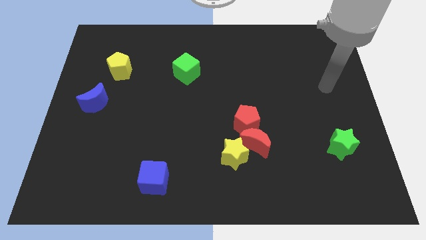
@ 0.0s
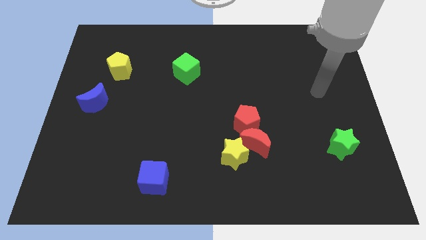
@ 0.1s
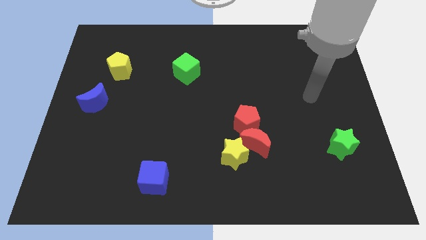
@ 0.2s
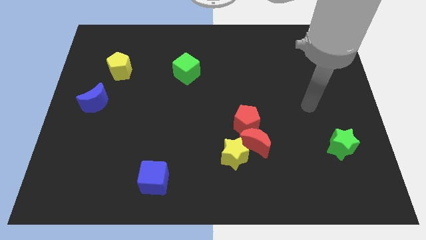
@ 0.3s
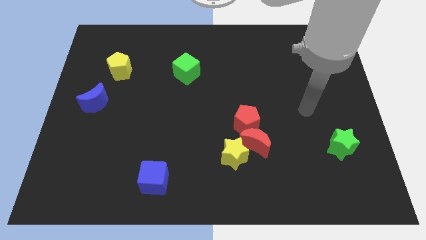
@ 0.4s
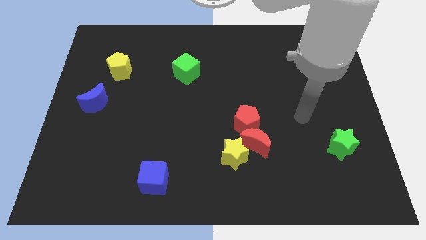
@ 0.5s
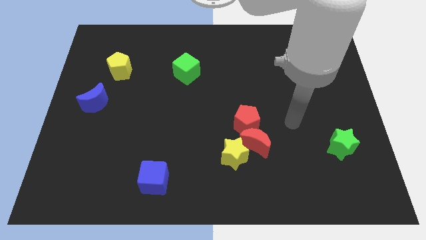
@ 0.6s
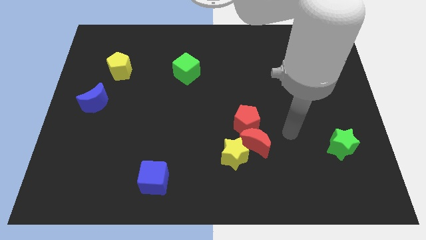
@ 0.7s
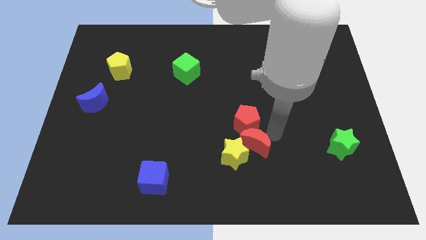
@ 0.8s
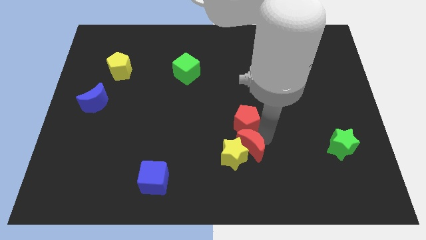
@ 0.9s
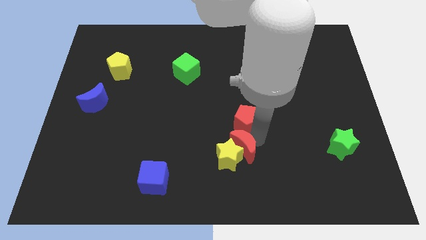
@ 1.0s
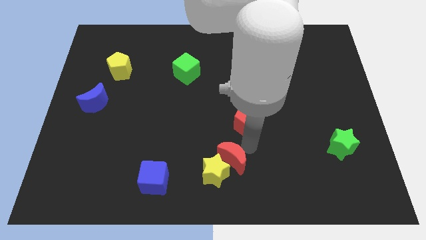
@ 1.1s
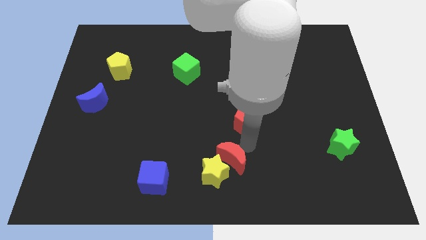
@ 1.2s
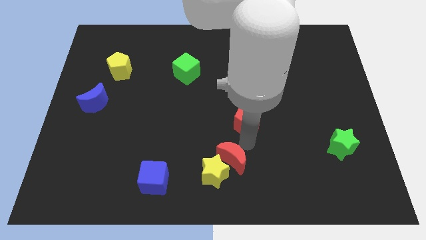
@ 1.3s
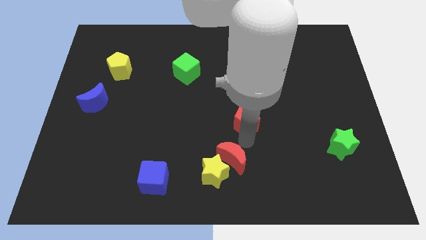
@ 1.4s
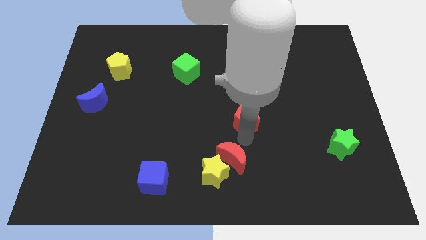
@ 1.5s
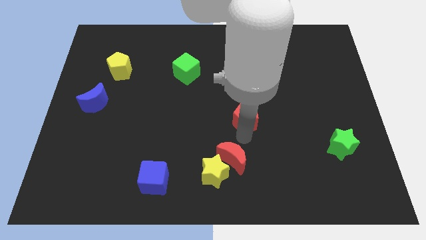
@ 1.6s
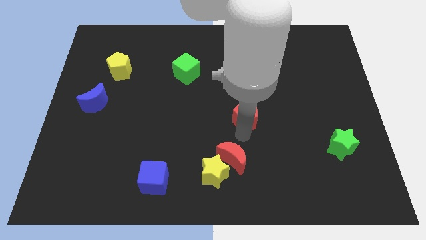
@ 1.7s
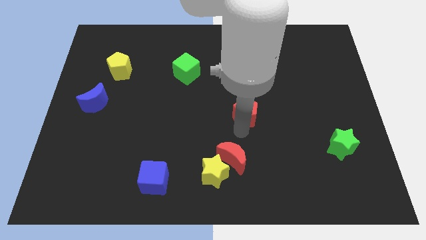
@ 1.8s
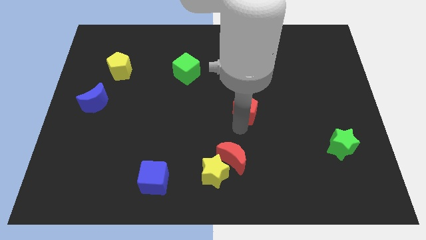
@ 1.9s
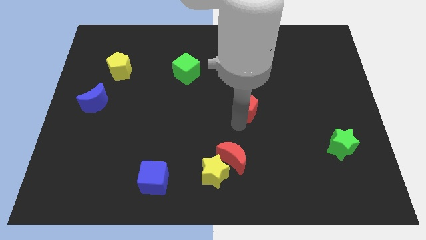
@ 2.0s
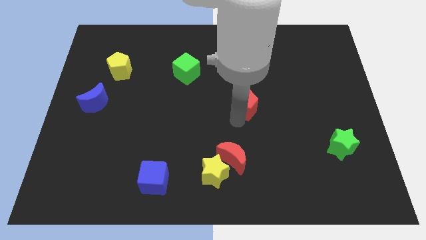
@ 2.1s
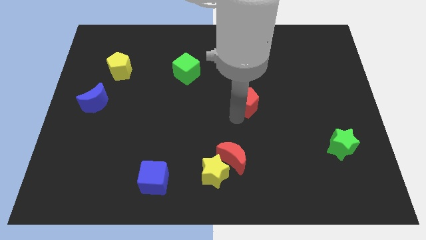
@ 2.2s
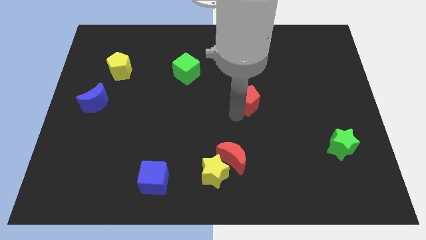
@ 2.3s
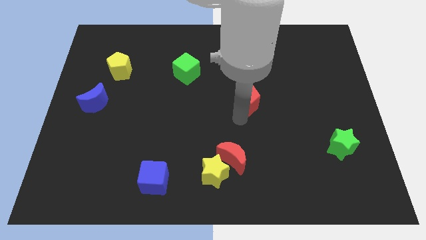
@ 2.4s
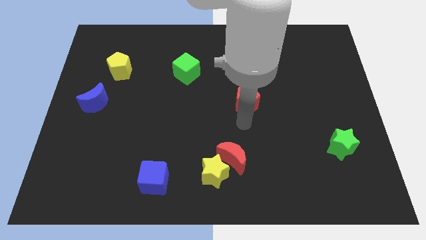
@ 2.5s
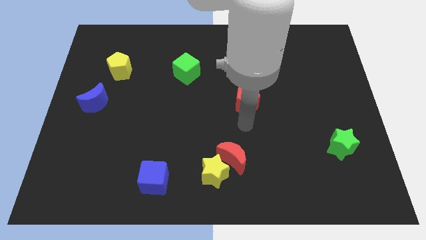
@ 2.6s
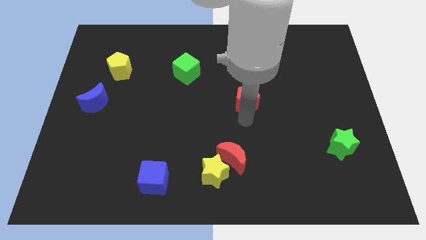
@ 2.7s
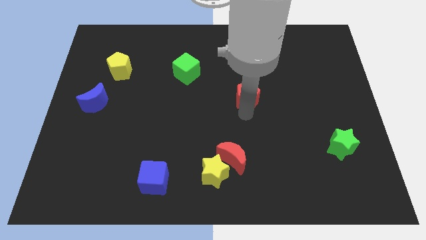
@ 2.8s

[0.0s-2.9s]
move the red pentagon upwards slightly

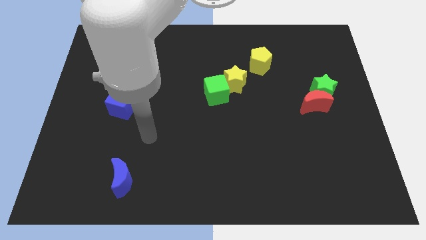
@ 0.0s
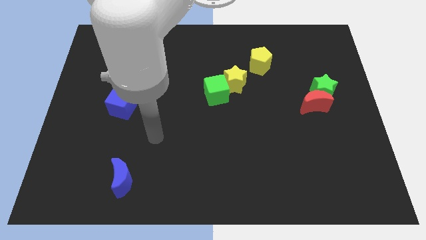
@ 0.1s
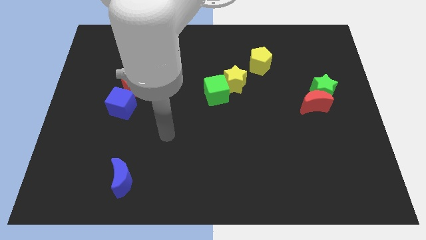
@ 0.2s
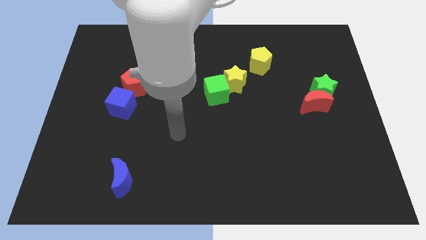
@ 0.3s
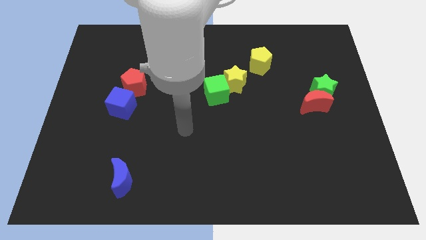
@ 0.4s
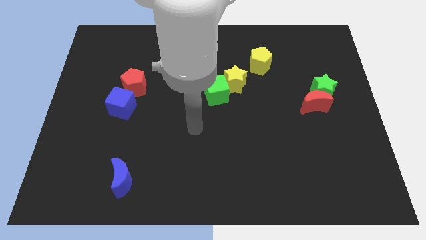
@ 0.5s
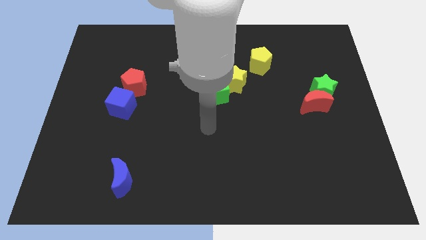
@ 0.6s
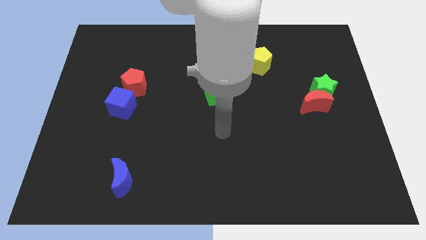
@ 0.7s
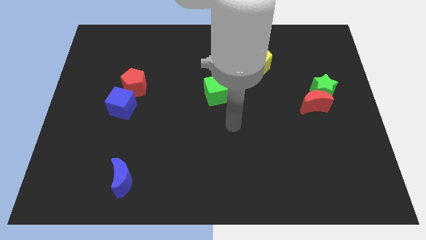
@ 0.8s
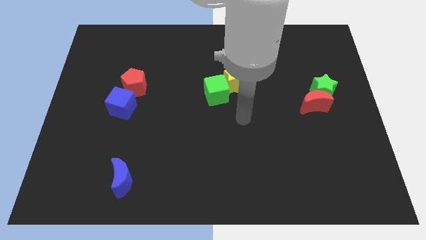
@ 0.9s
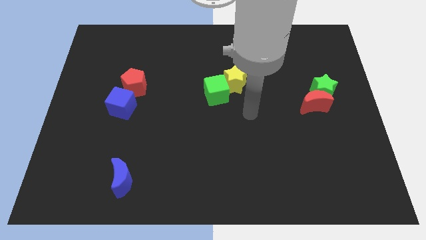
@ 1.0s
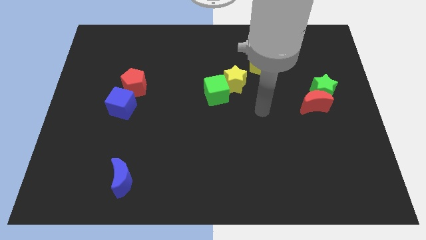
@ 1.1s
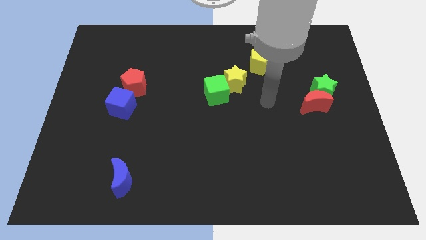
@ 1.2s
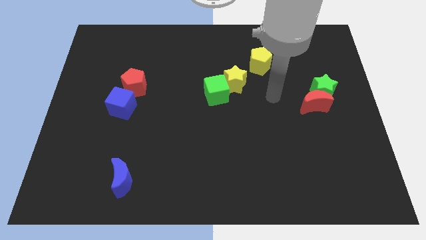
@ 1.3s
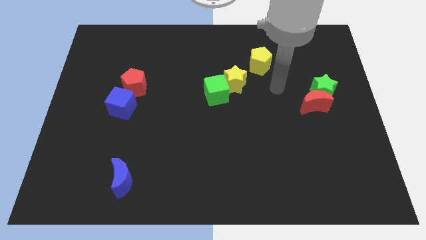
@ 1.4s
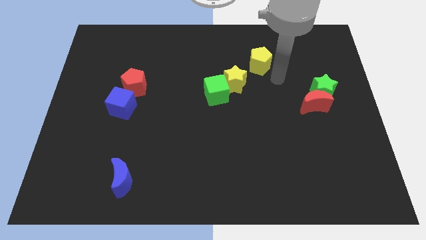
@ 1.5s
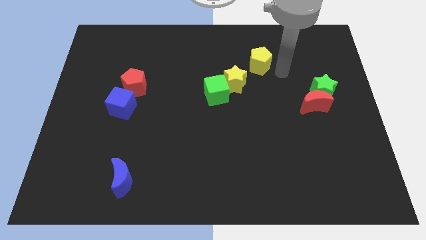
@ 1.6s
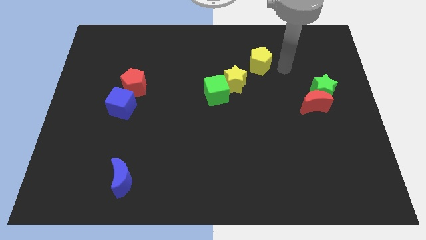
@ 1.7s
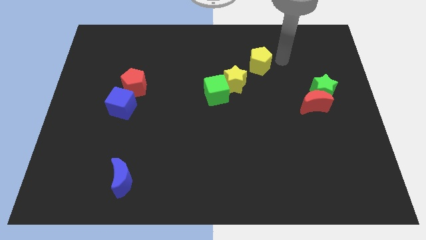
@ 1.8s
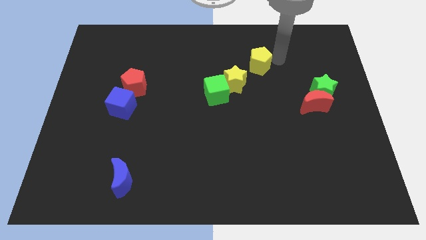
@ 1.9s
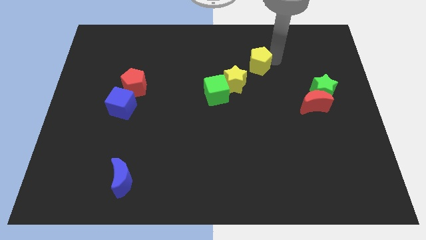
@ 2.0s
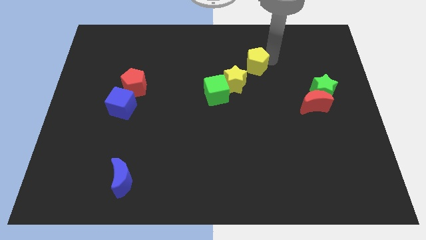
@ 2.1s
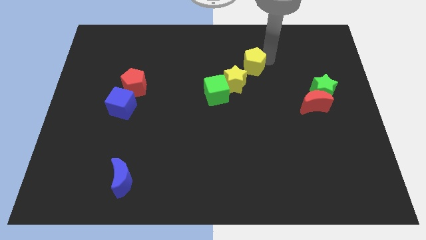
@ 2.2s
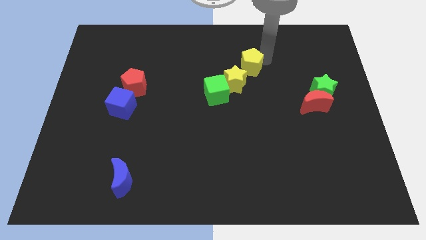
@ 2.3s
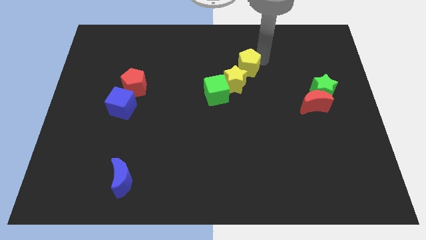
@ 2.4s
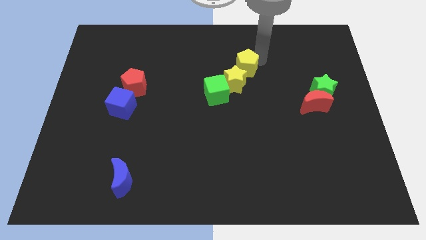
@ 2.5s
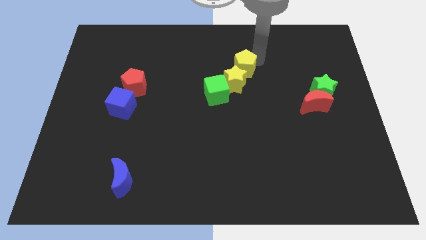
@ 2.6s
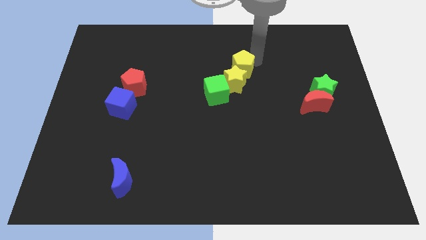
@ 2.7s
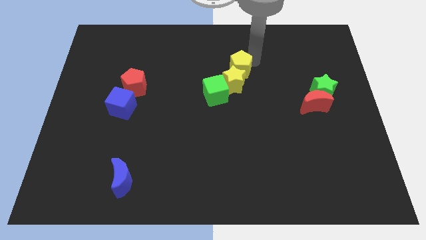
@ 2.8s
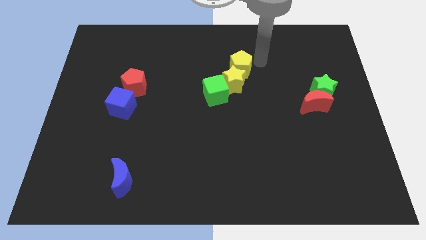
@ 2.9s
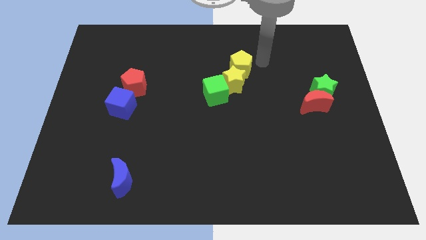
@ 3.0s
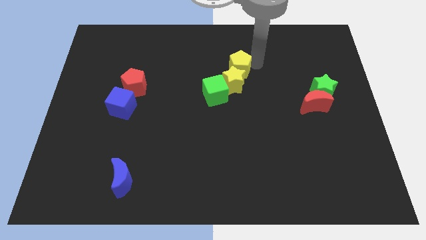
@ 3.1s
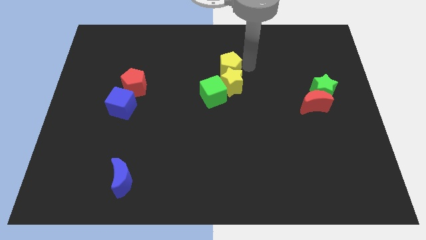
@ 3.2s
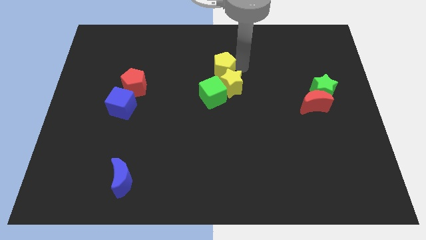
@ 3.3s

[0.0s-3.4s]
move the yellow pentagon slightly downwards and to the left diagonally

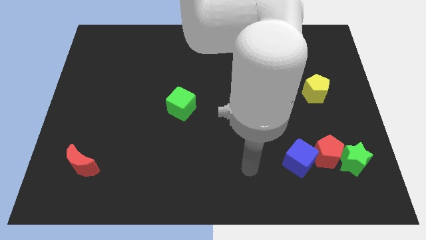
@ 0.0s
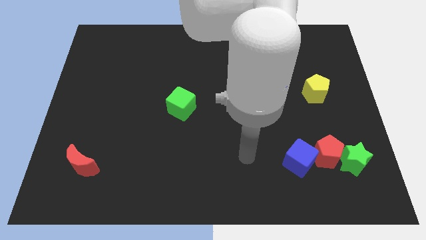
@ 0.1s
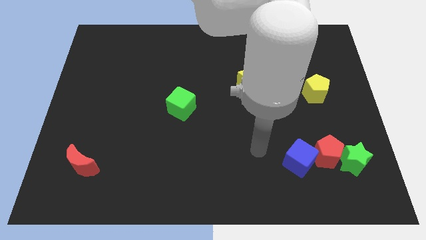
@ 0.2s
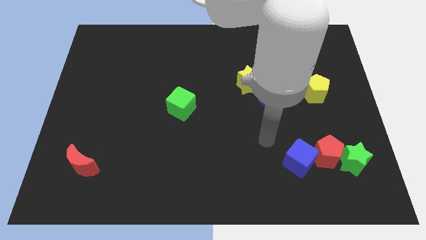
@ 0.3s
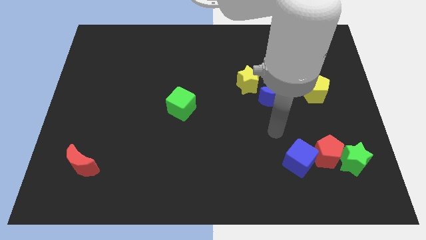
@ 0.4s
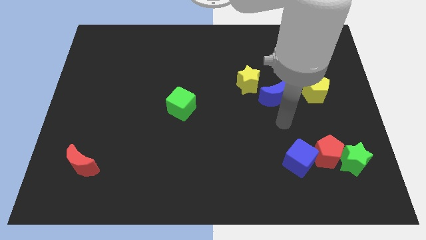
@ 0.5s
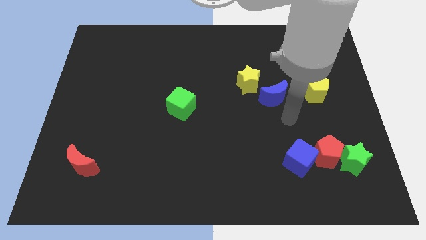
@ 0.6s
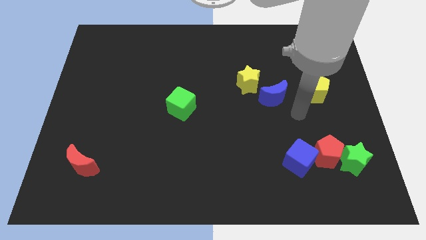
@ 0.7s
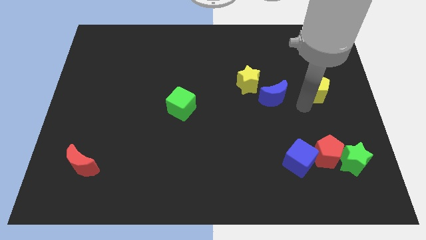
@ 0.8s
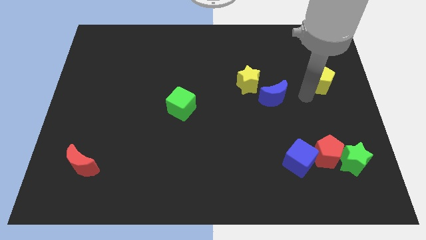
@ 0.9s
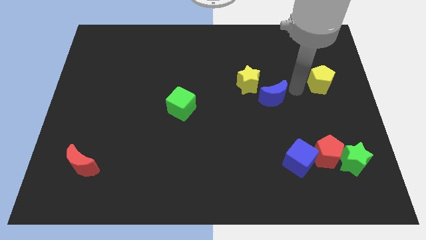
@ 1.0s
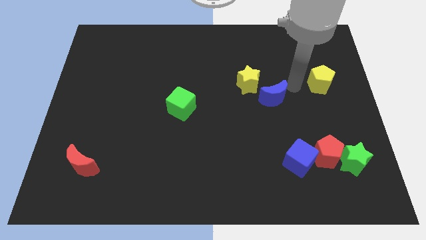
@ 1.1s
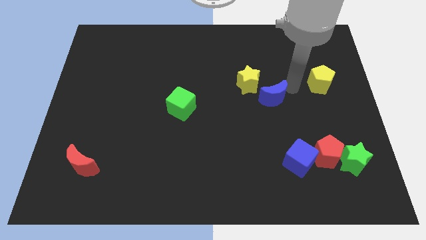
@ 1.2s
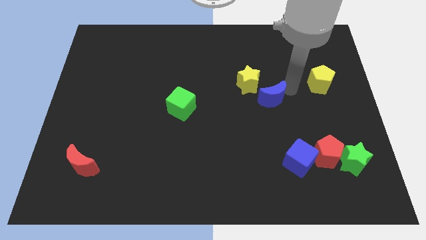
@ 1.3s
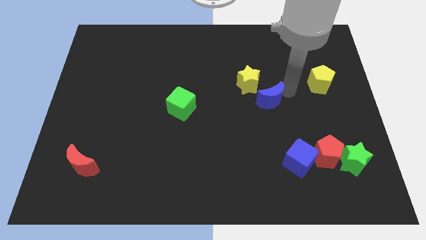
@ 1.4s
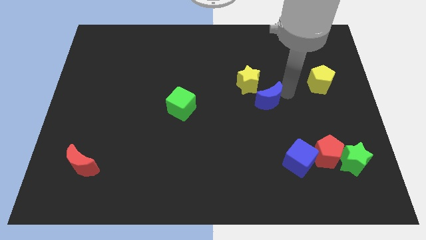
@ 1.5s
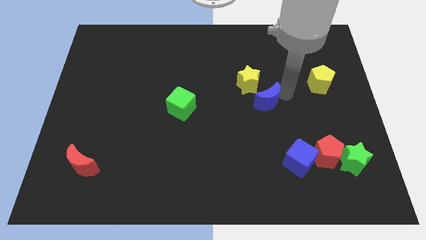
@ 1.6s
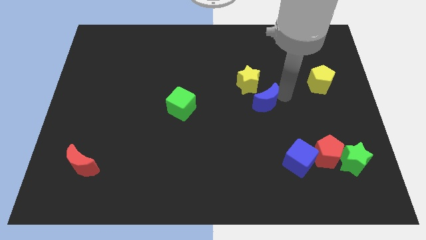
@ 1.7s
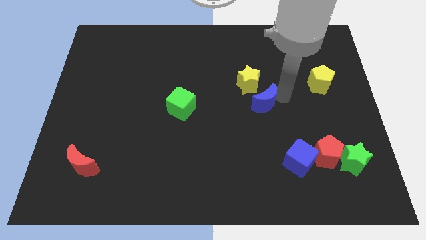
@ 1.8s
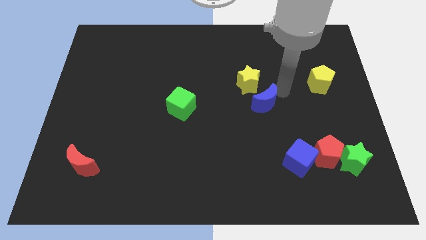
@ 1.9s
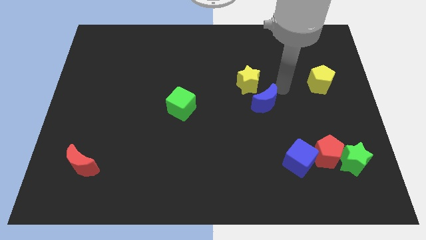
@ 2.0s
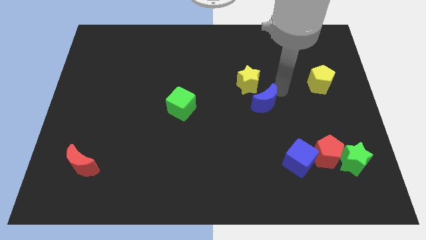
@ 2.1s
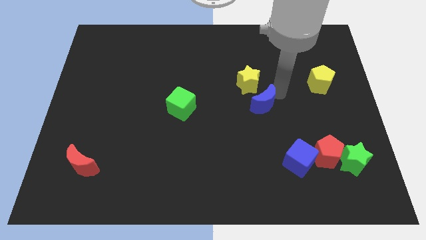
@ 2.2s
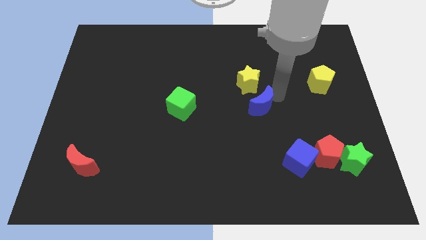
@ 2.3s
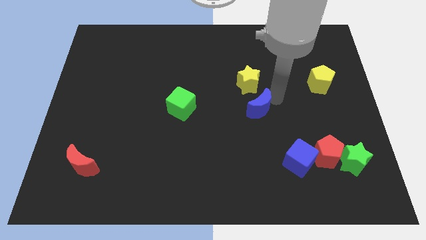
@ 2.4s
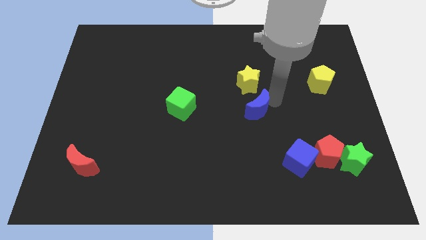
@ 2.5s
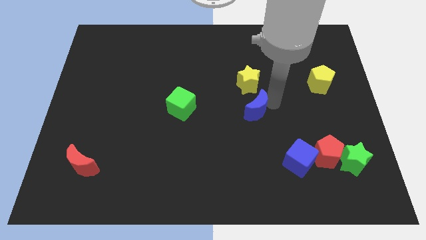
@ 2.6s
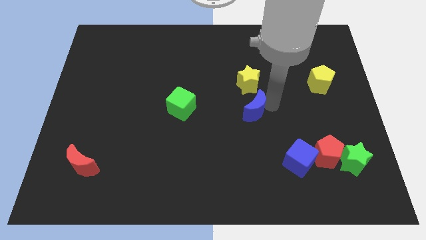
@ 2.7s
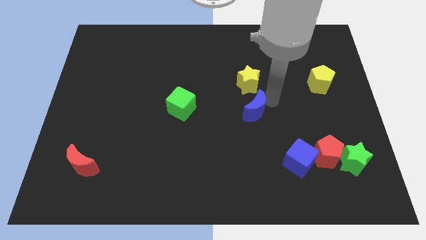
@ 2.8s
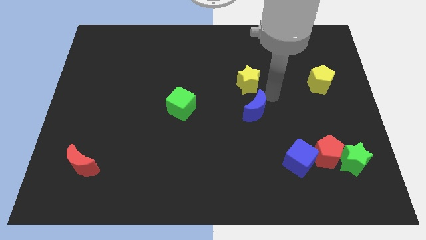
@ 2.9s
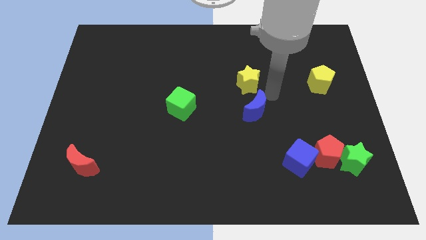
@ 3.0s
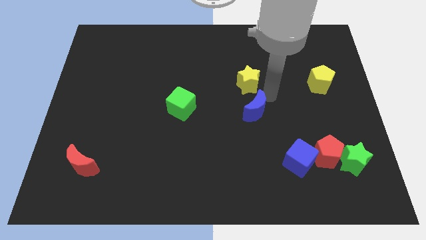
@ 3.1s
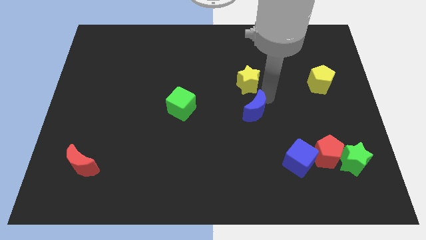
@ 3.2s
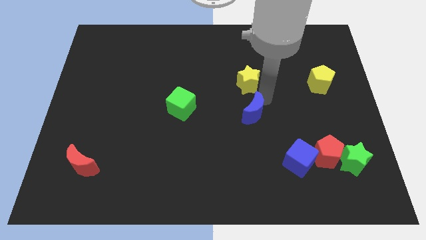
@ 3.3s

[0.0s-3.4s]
slide the blue moon a bit downwards and to the left
